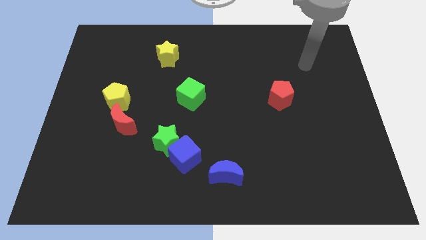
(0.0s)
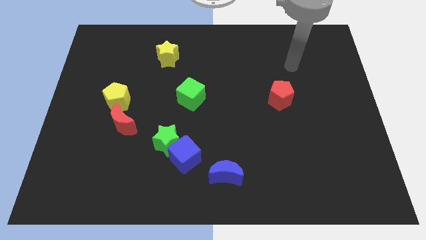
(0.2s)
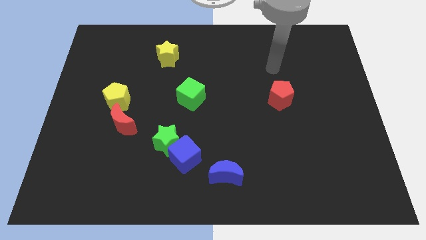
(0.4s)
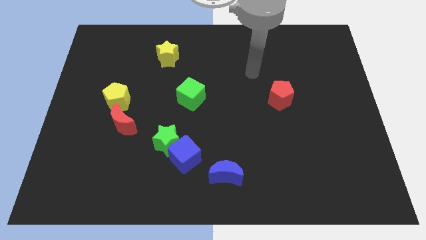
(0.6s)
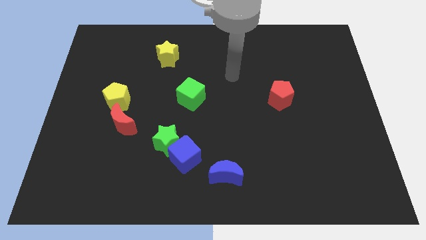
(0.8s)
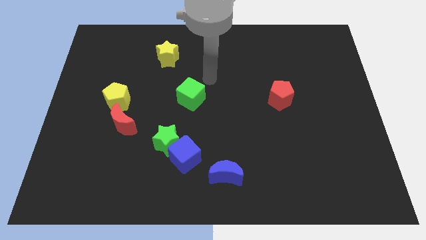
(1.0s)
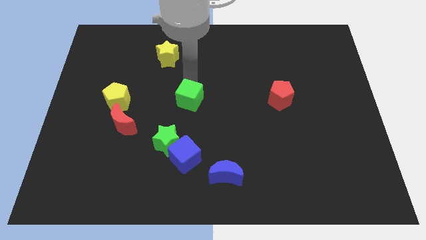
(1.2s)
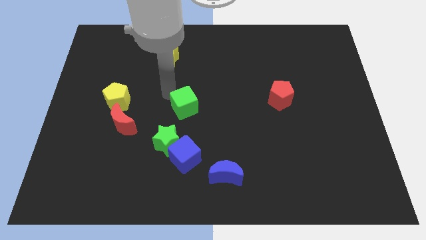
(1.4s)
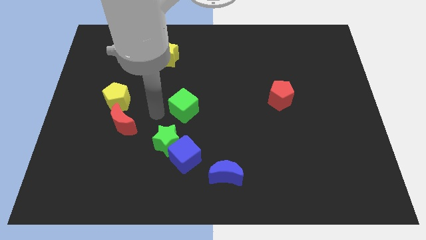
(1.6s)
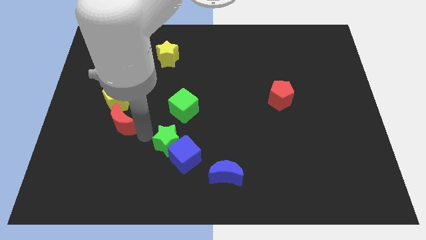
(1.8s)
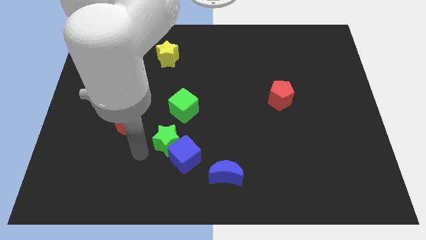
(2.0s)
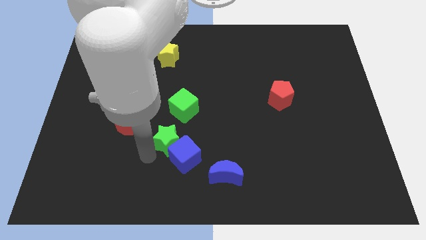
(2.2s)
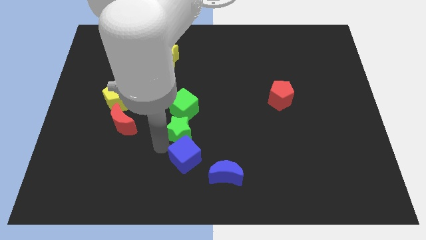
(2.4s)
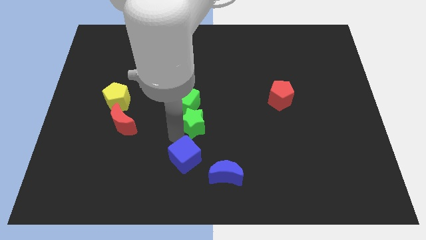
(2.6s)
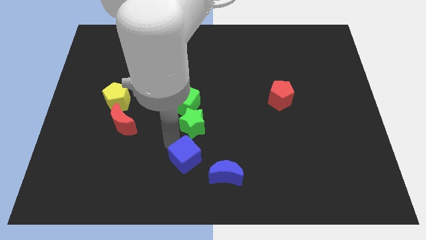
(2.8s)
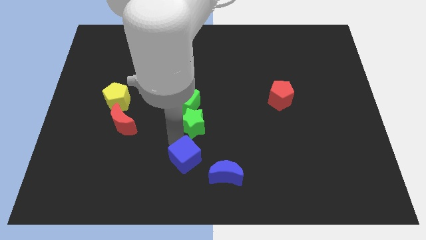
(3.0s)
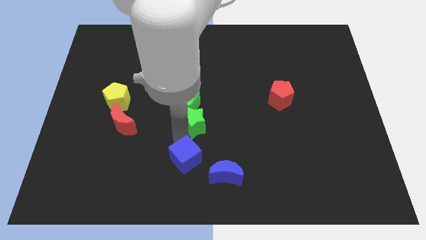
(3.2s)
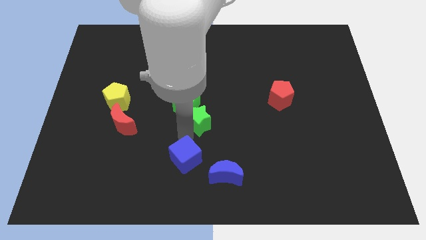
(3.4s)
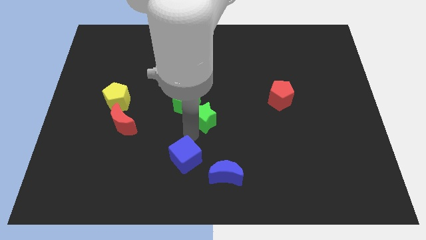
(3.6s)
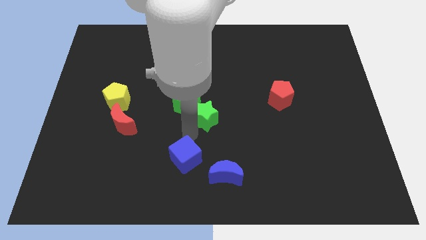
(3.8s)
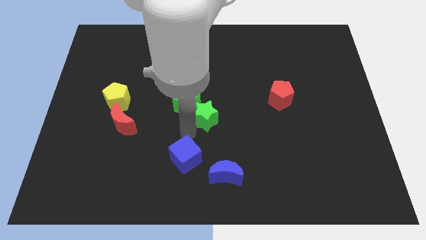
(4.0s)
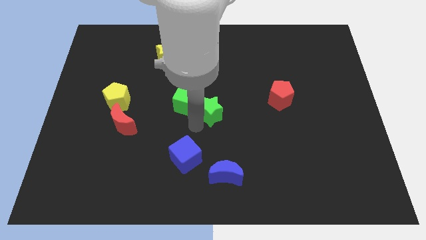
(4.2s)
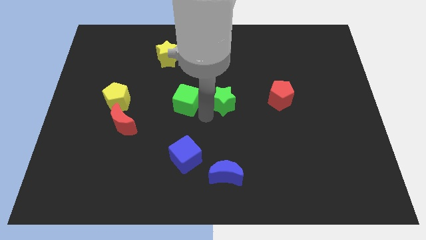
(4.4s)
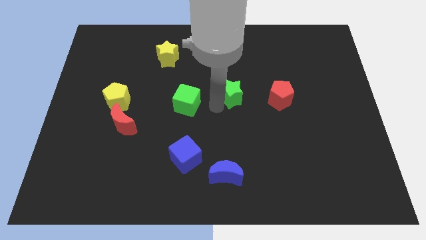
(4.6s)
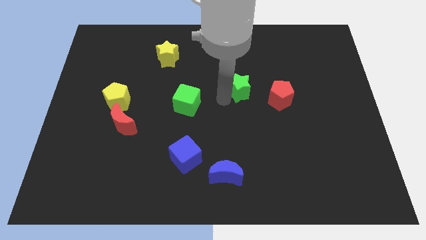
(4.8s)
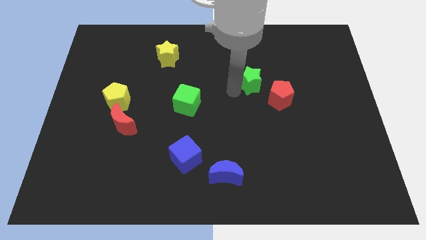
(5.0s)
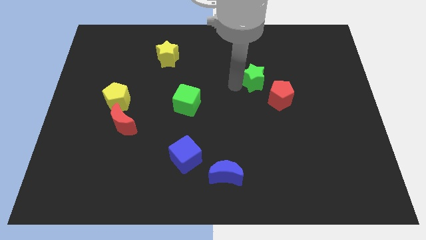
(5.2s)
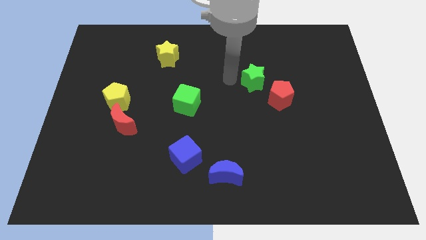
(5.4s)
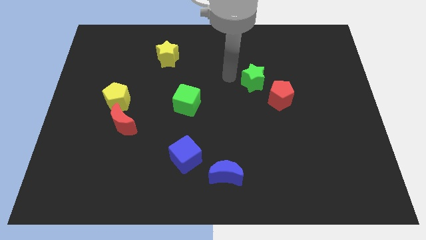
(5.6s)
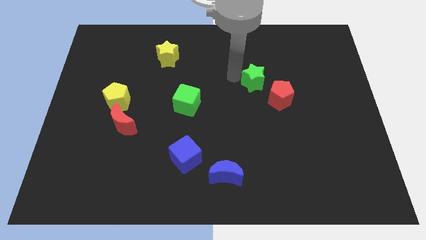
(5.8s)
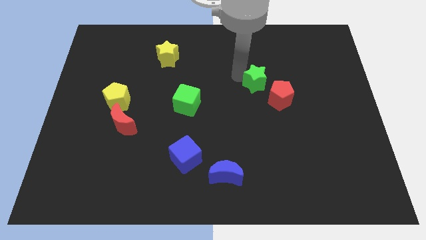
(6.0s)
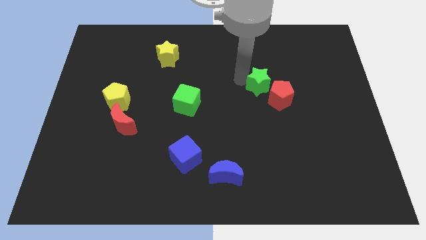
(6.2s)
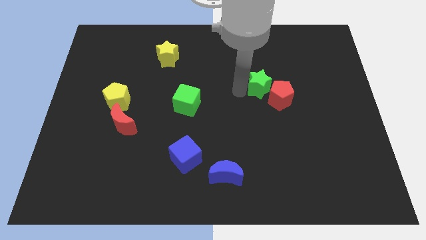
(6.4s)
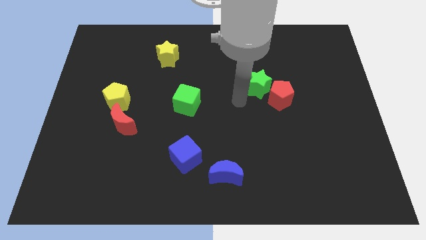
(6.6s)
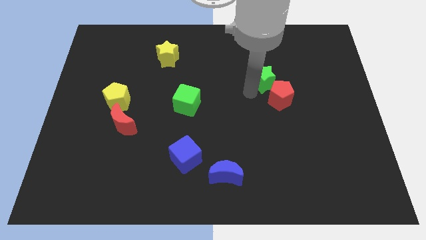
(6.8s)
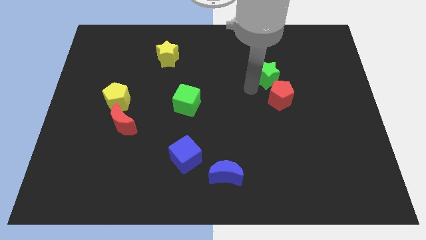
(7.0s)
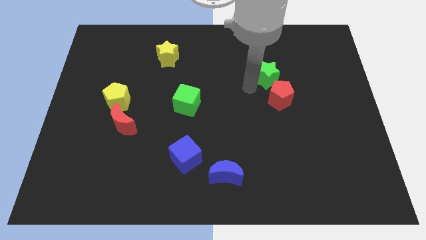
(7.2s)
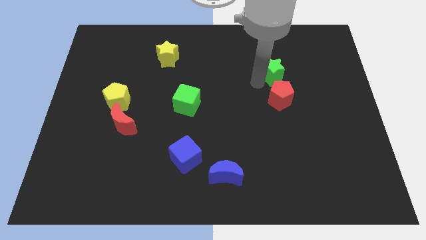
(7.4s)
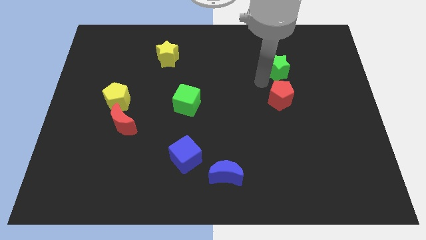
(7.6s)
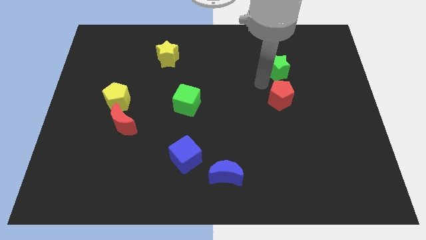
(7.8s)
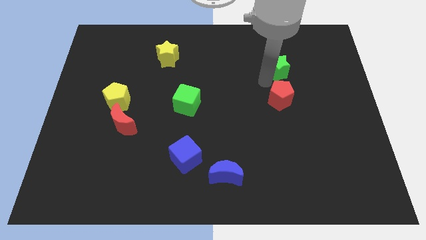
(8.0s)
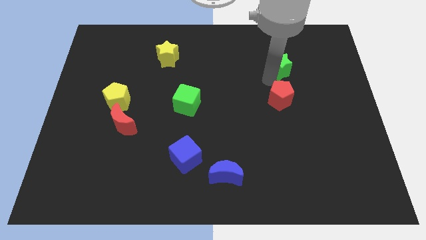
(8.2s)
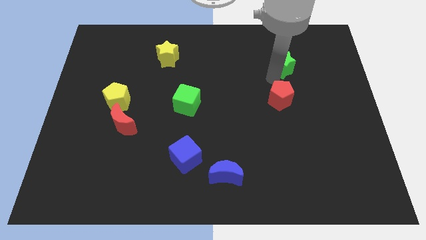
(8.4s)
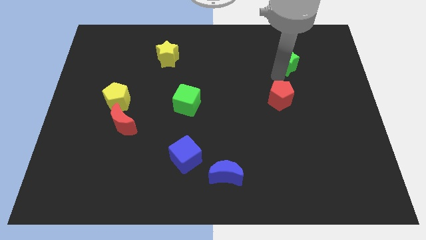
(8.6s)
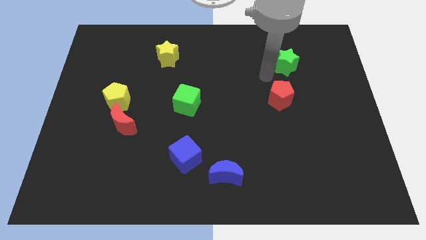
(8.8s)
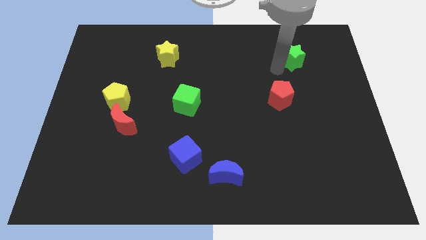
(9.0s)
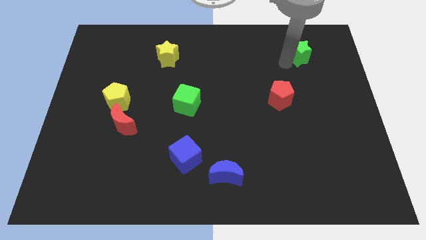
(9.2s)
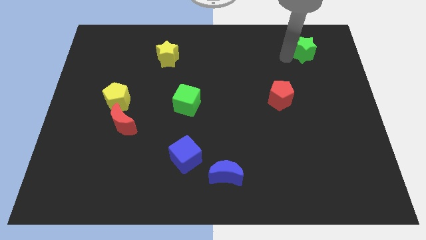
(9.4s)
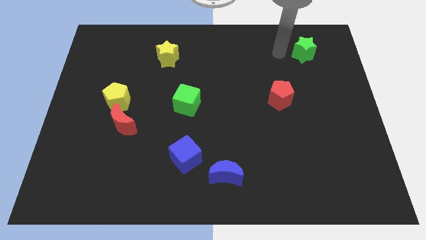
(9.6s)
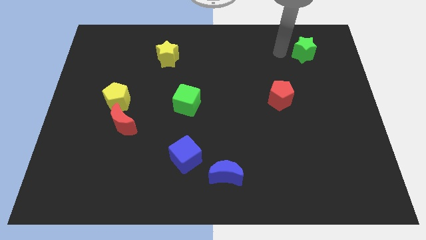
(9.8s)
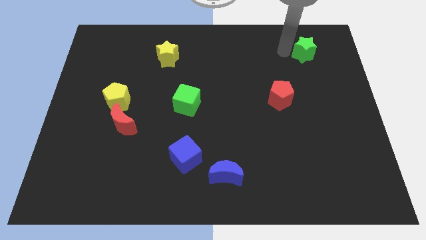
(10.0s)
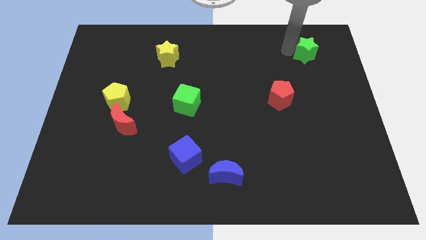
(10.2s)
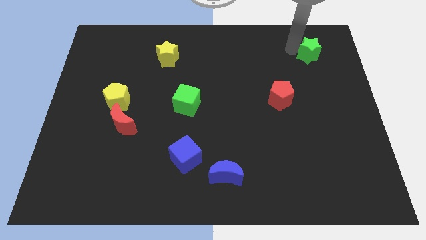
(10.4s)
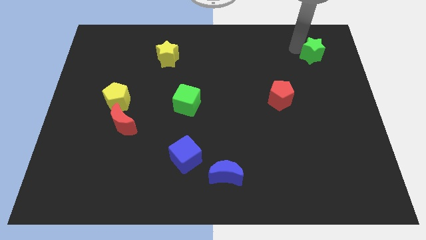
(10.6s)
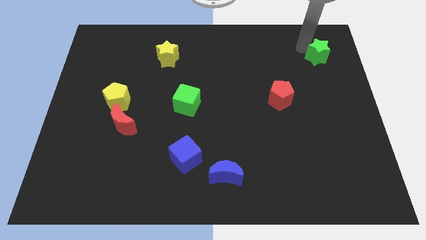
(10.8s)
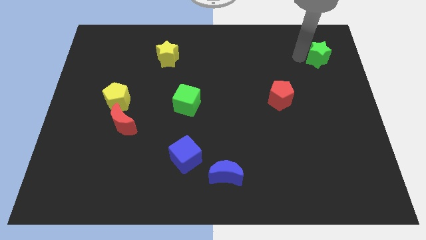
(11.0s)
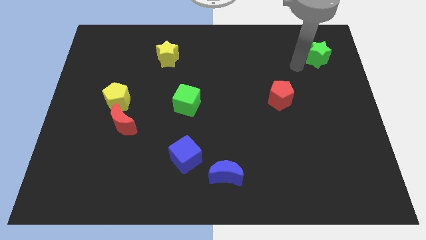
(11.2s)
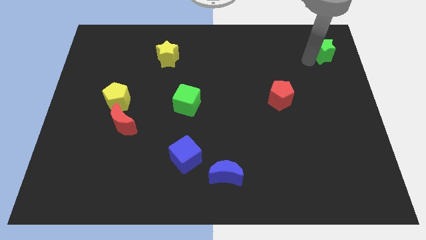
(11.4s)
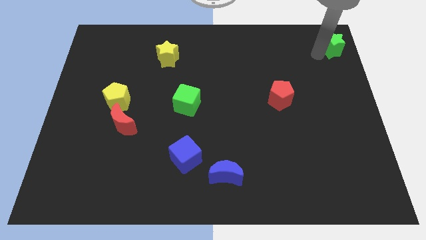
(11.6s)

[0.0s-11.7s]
move the green star to the top right of the board

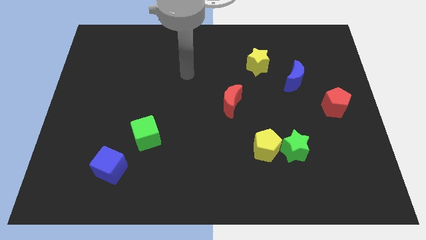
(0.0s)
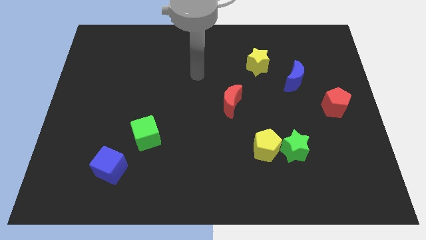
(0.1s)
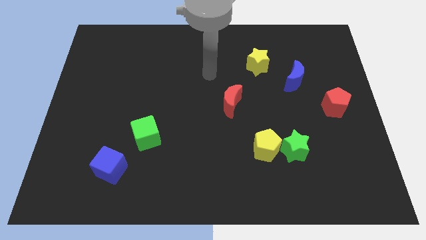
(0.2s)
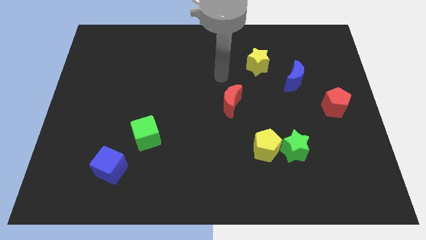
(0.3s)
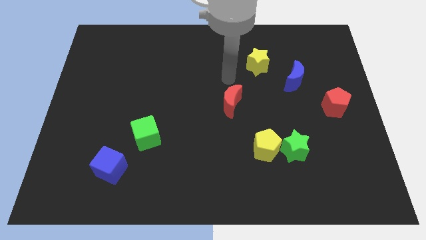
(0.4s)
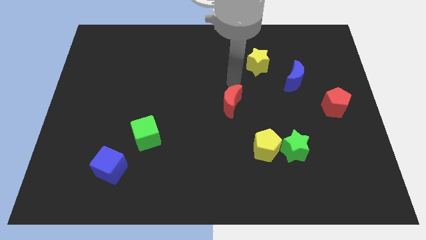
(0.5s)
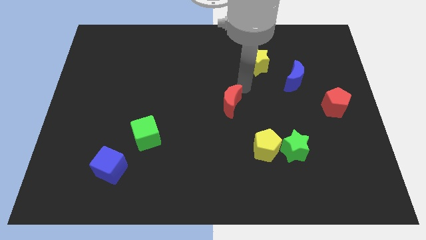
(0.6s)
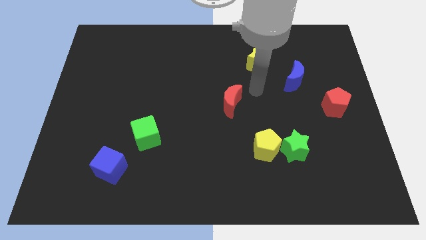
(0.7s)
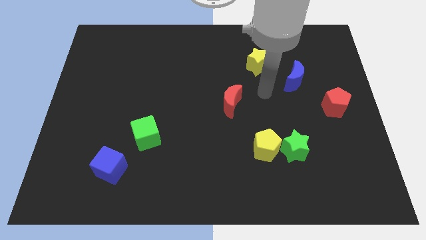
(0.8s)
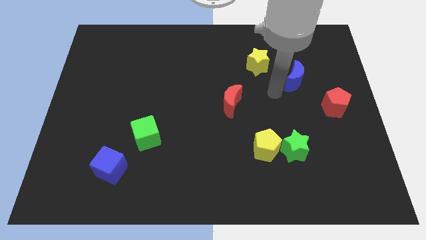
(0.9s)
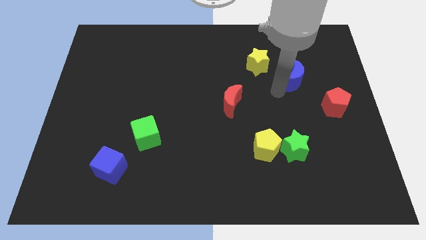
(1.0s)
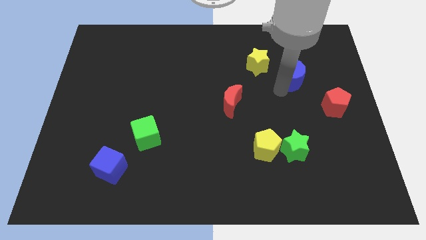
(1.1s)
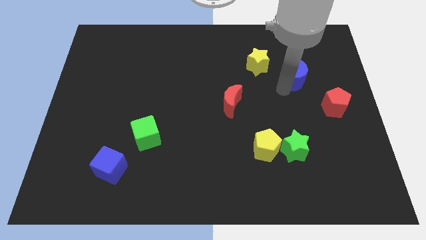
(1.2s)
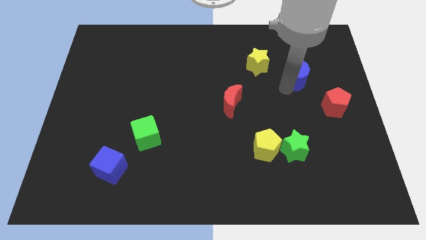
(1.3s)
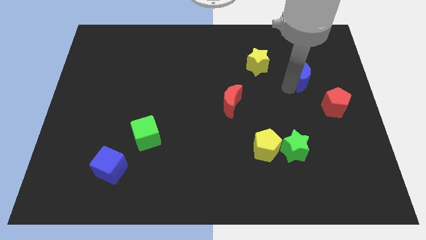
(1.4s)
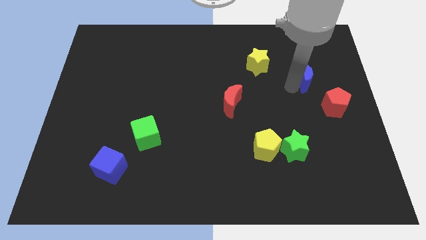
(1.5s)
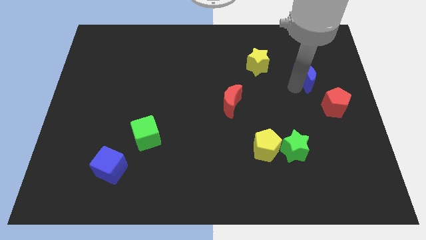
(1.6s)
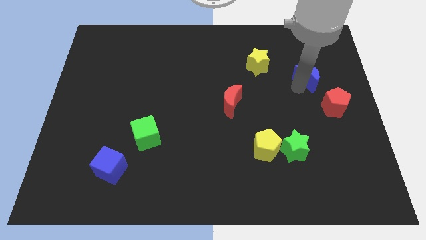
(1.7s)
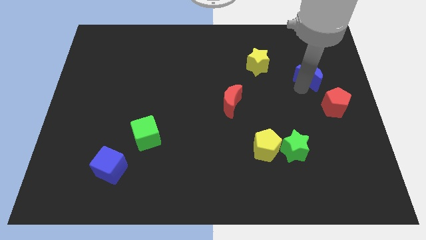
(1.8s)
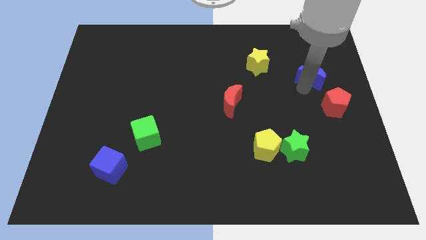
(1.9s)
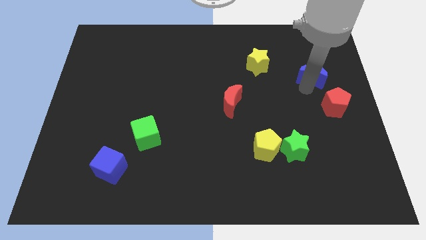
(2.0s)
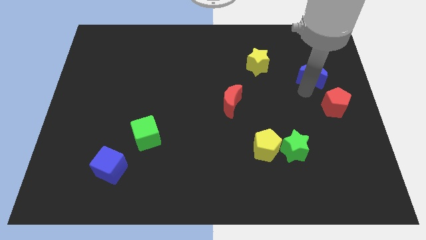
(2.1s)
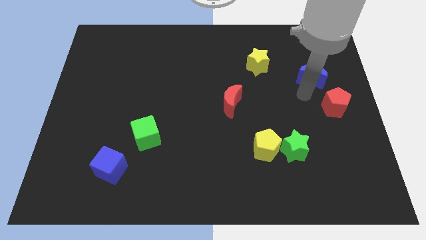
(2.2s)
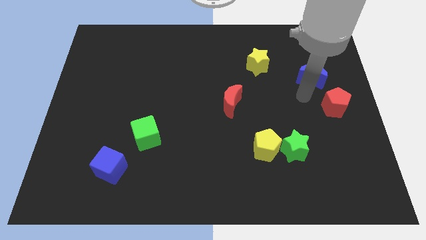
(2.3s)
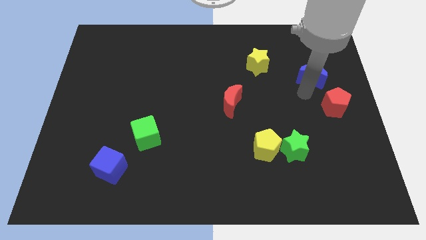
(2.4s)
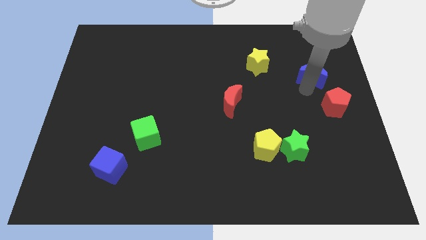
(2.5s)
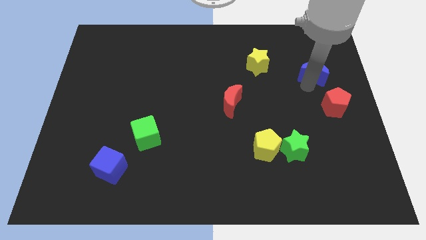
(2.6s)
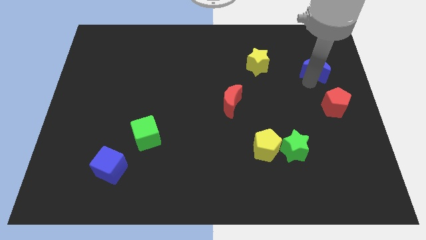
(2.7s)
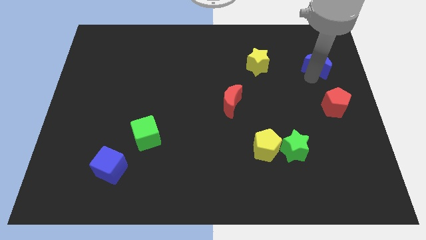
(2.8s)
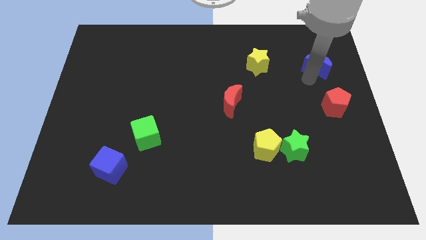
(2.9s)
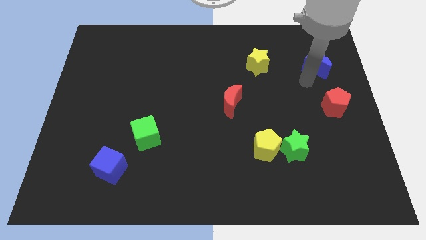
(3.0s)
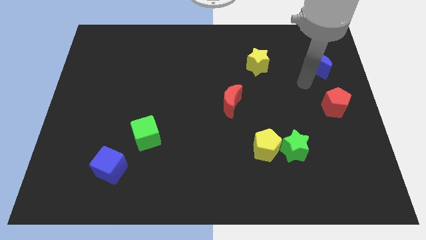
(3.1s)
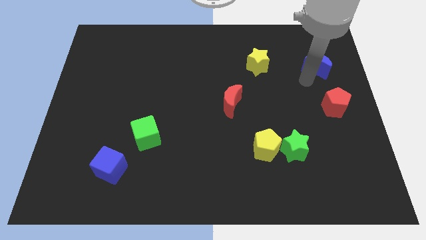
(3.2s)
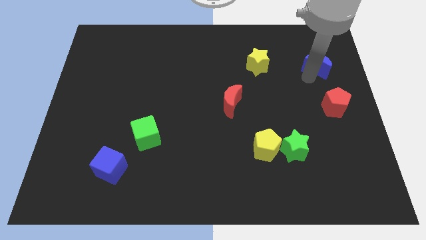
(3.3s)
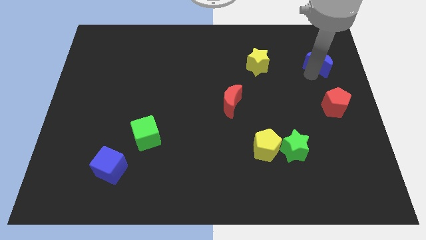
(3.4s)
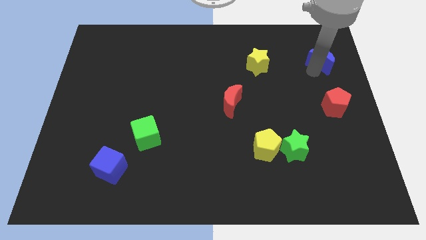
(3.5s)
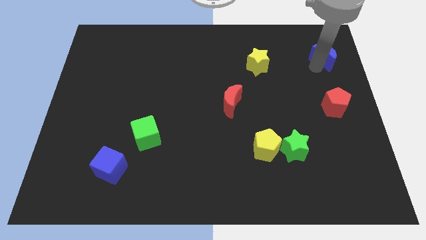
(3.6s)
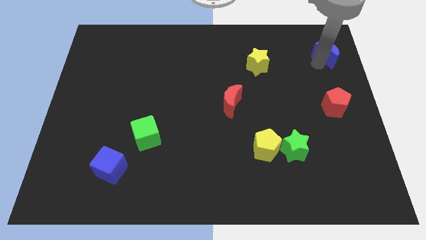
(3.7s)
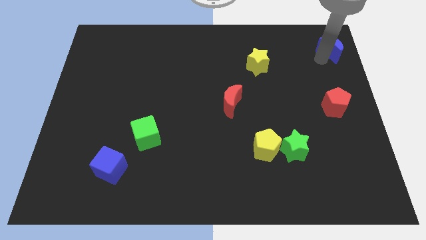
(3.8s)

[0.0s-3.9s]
push the blue moon to the upper right corner
